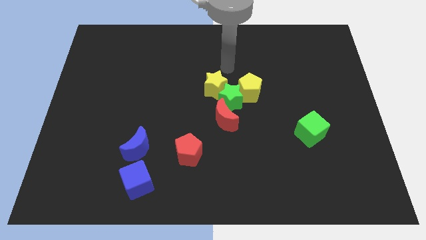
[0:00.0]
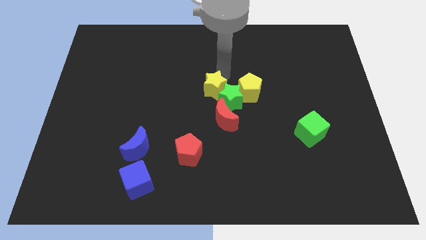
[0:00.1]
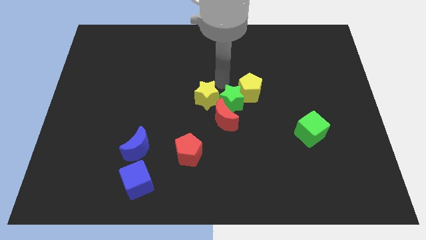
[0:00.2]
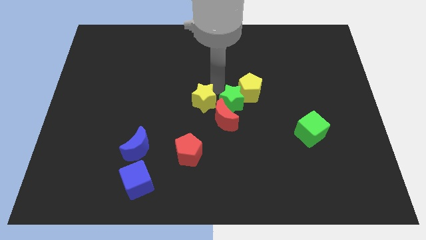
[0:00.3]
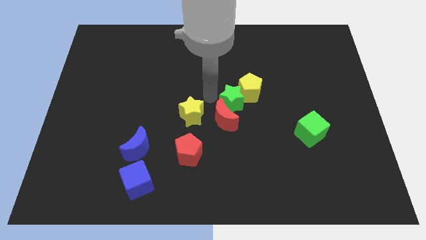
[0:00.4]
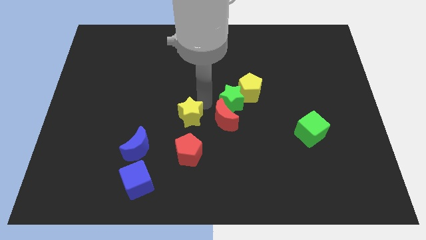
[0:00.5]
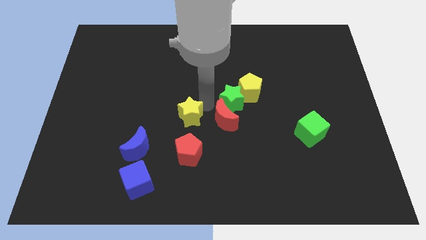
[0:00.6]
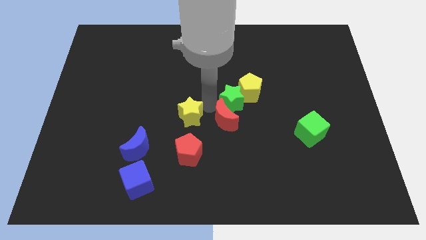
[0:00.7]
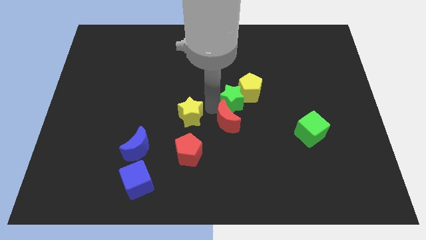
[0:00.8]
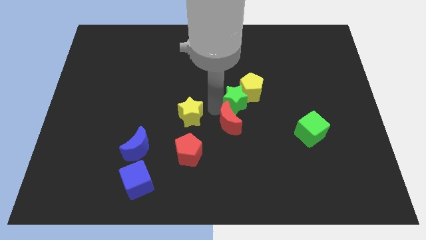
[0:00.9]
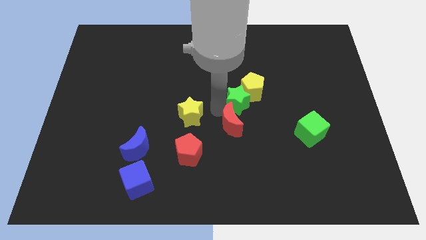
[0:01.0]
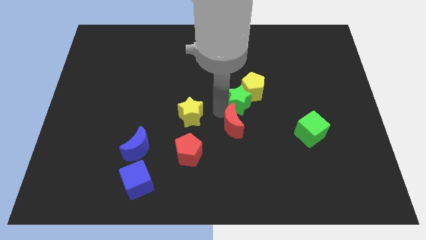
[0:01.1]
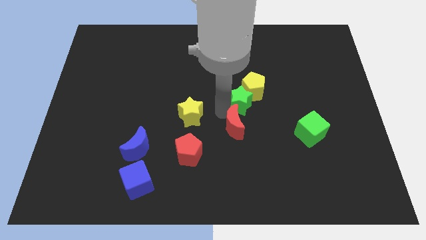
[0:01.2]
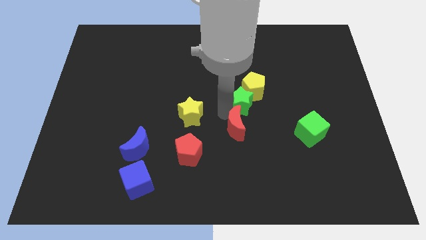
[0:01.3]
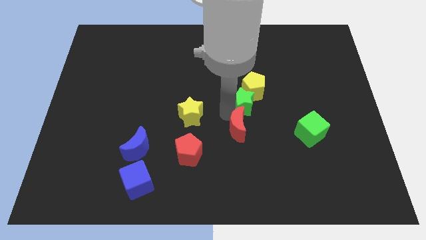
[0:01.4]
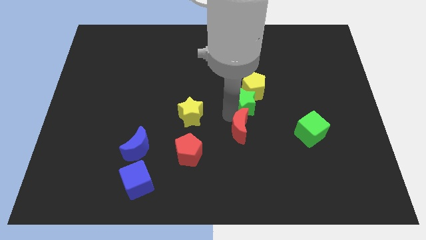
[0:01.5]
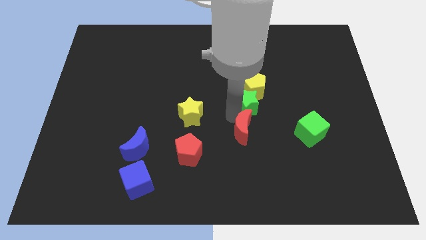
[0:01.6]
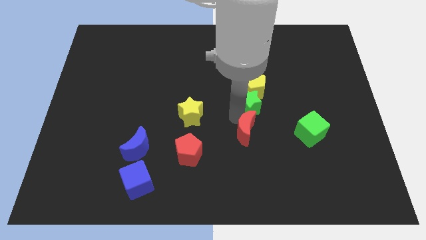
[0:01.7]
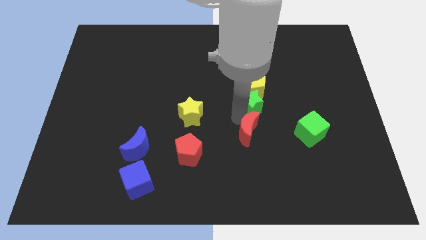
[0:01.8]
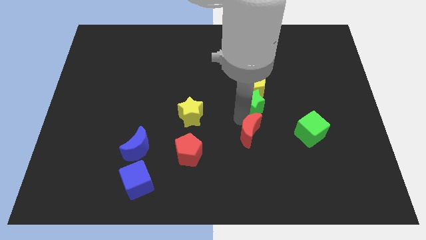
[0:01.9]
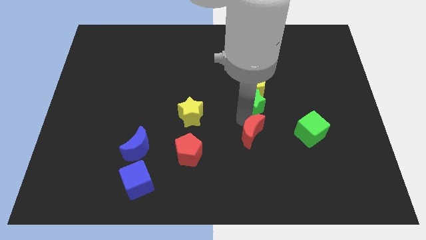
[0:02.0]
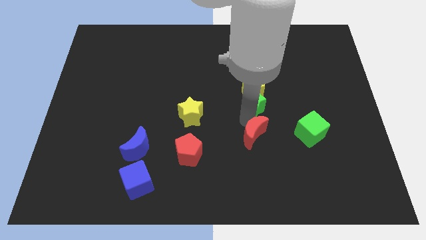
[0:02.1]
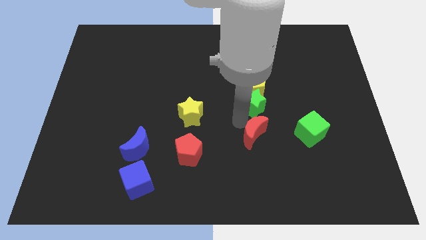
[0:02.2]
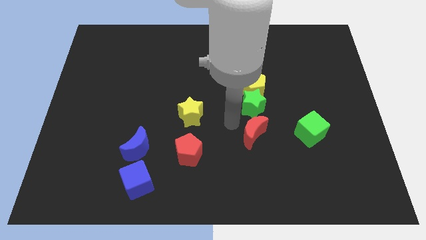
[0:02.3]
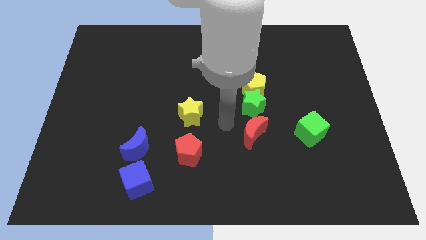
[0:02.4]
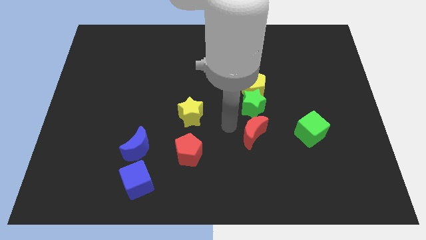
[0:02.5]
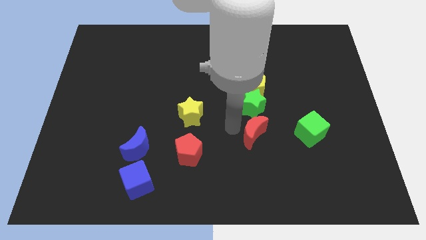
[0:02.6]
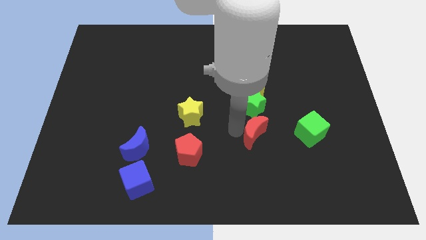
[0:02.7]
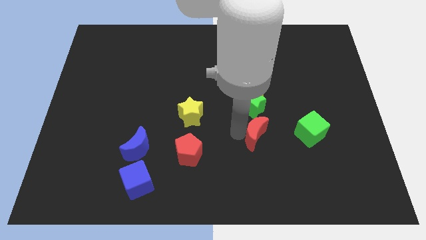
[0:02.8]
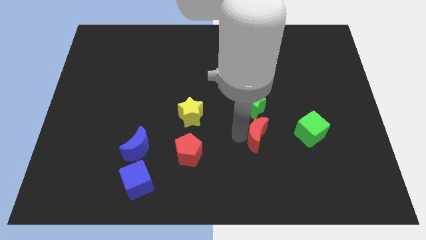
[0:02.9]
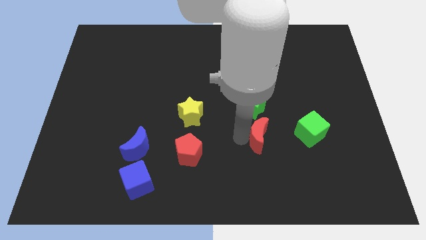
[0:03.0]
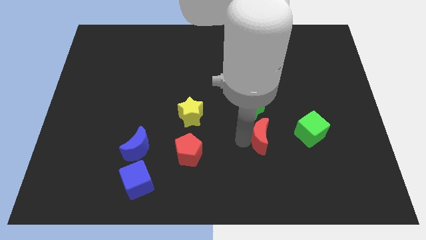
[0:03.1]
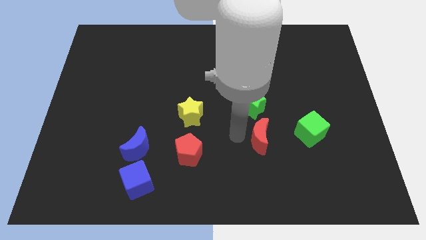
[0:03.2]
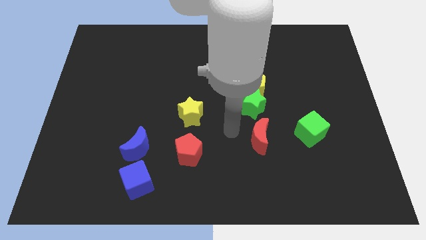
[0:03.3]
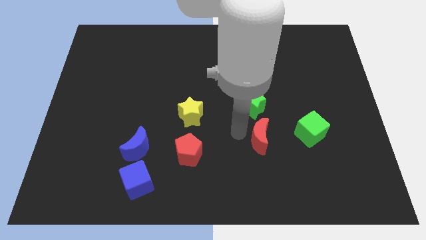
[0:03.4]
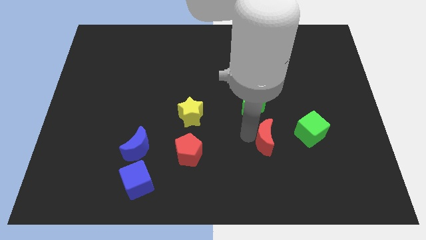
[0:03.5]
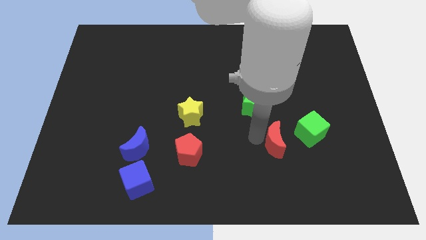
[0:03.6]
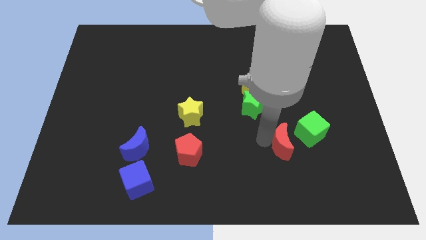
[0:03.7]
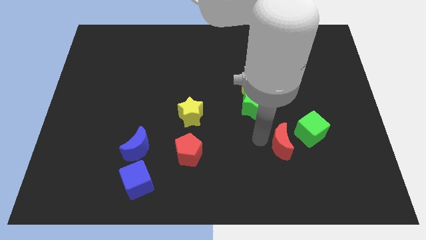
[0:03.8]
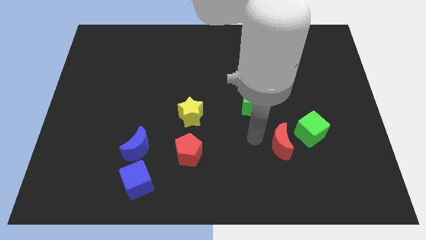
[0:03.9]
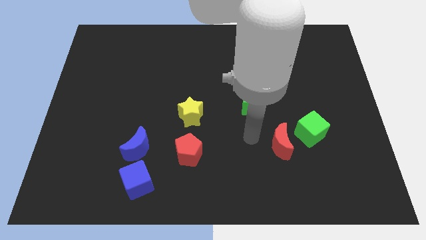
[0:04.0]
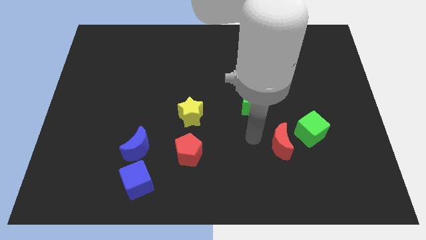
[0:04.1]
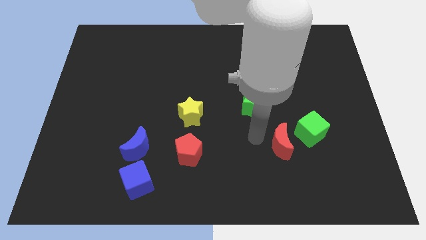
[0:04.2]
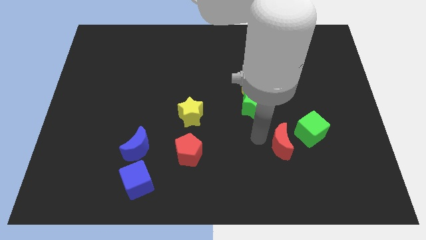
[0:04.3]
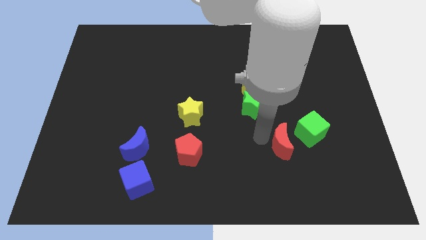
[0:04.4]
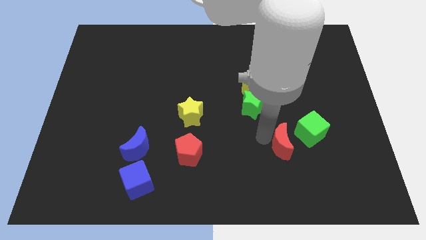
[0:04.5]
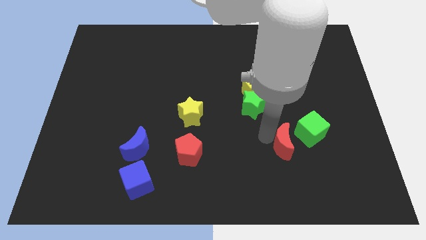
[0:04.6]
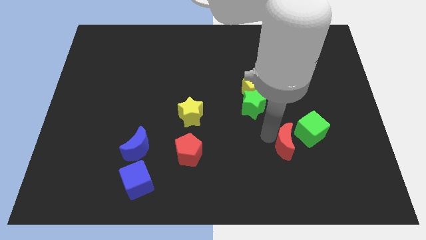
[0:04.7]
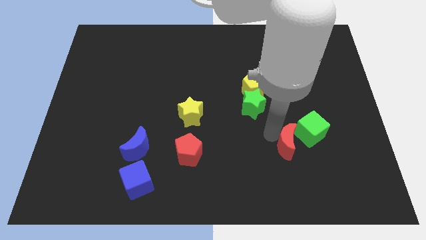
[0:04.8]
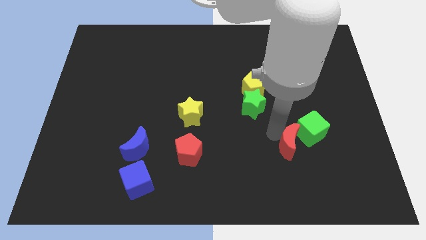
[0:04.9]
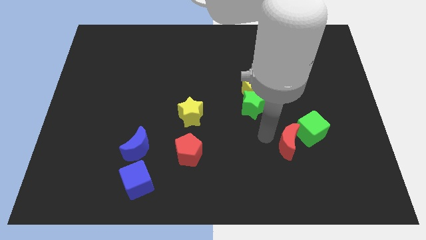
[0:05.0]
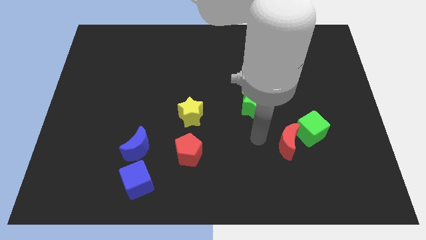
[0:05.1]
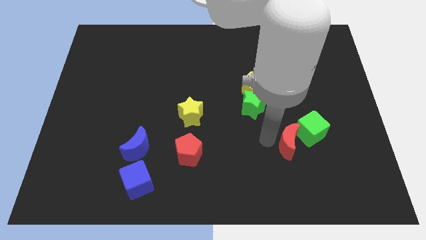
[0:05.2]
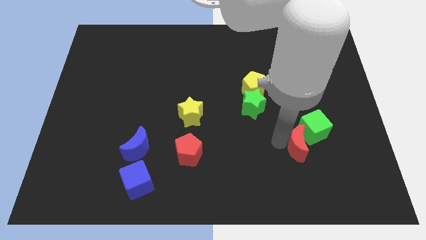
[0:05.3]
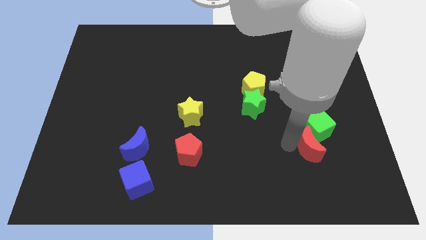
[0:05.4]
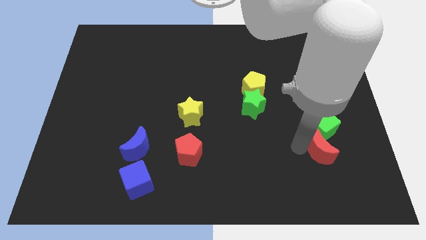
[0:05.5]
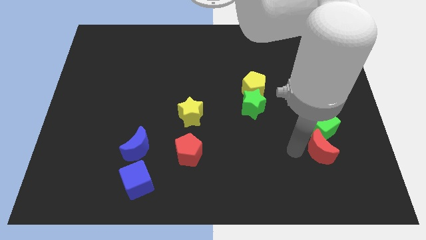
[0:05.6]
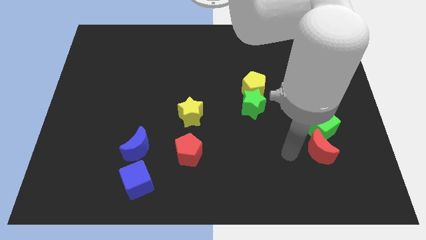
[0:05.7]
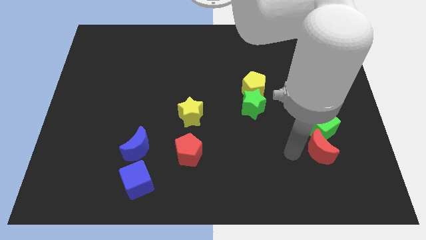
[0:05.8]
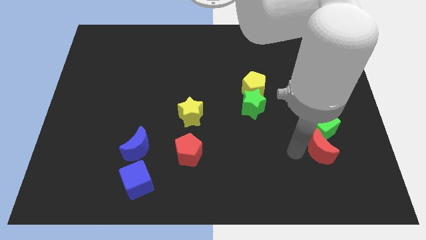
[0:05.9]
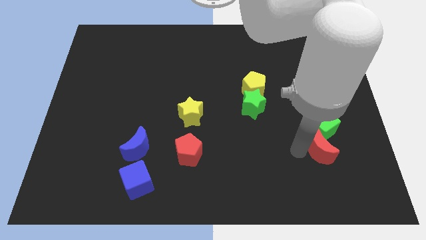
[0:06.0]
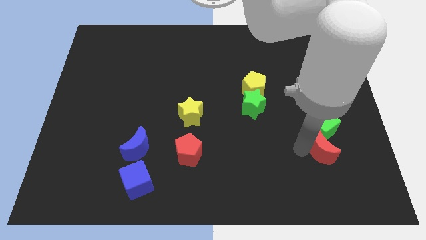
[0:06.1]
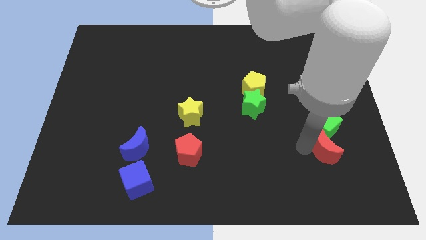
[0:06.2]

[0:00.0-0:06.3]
push the red moon to the bottom right of the green cube

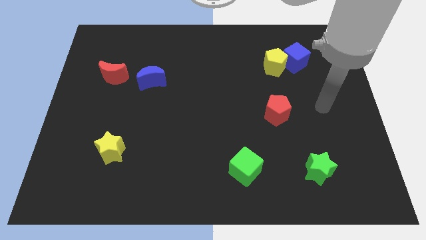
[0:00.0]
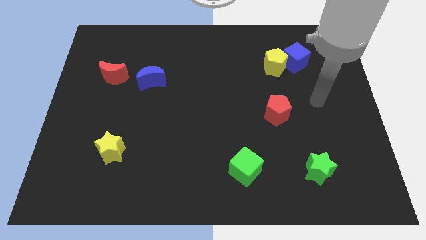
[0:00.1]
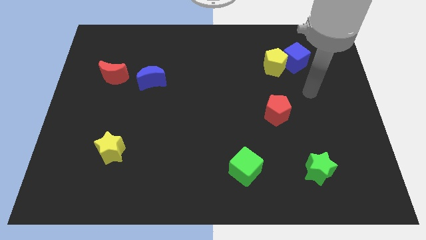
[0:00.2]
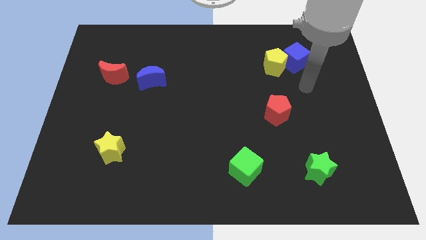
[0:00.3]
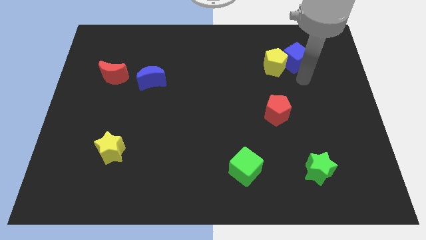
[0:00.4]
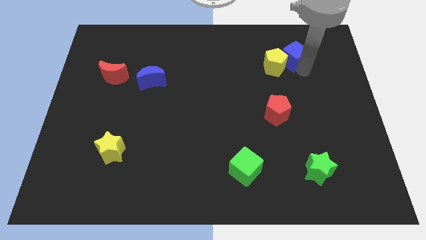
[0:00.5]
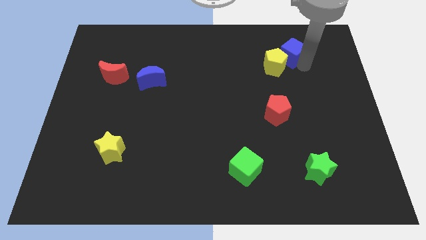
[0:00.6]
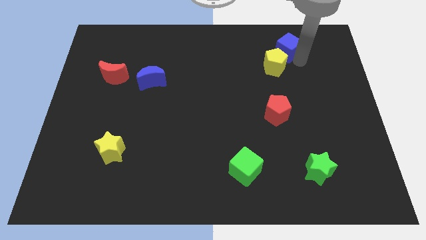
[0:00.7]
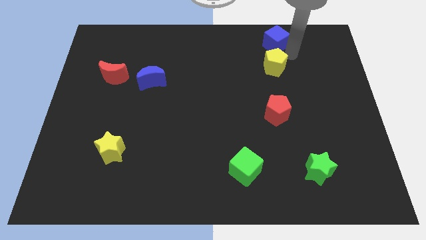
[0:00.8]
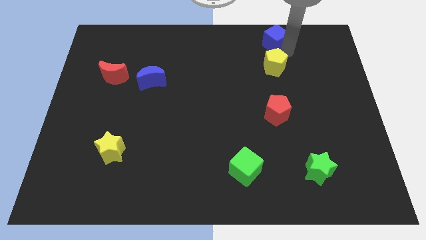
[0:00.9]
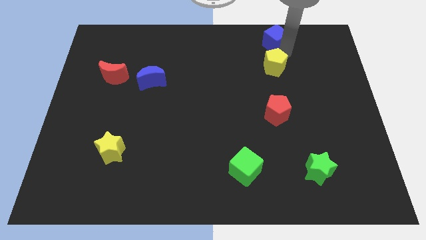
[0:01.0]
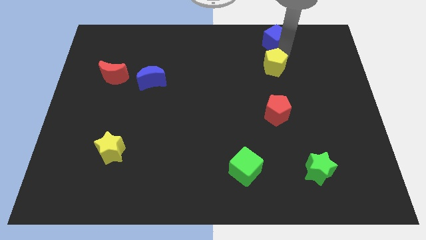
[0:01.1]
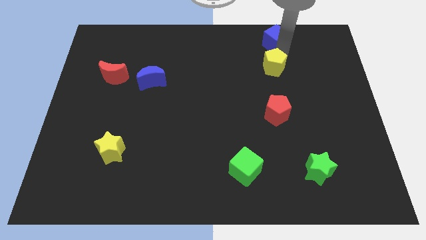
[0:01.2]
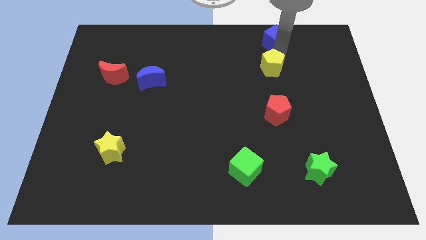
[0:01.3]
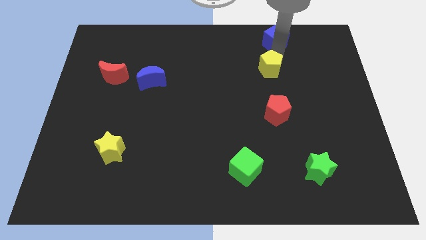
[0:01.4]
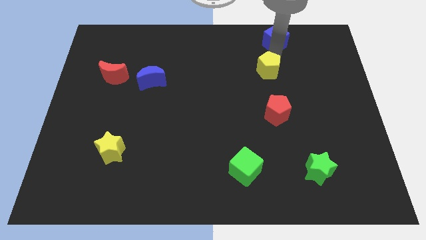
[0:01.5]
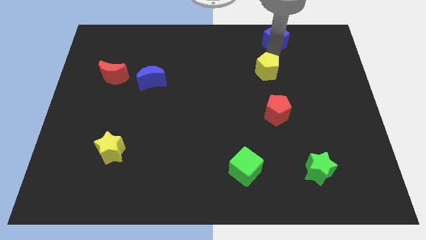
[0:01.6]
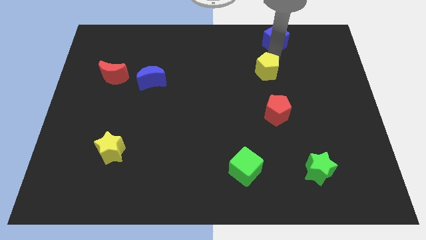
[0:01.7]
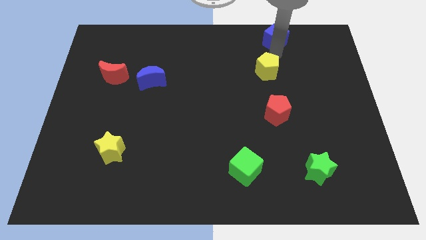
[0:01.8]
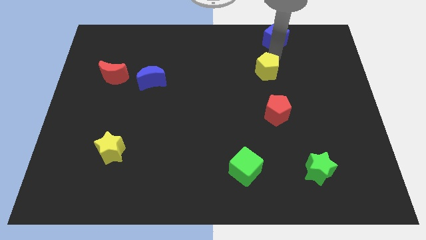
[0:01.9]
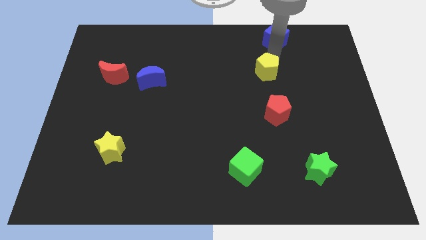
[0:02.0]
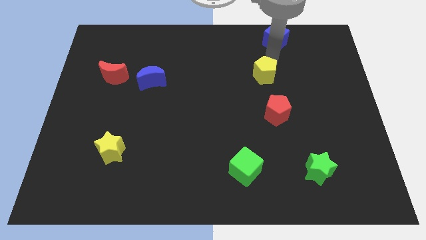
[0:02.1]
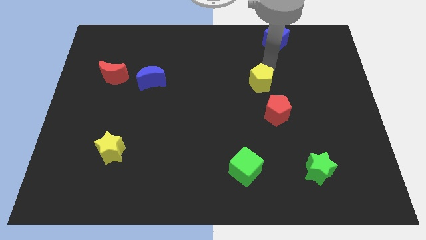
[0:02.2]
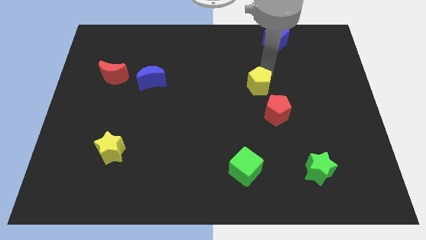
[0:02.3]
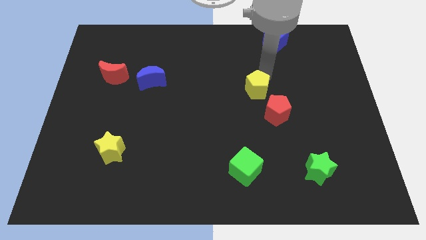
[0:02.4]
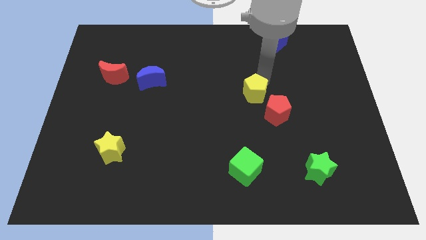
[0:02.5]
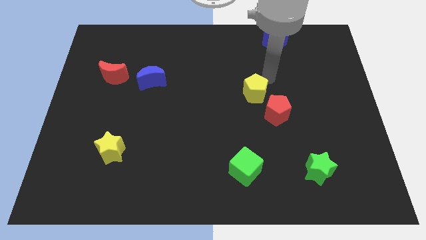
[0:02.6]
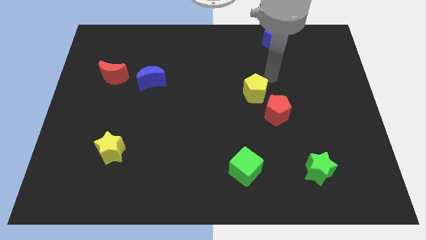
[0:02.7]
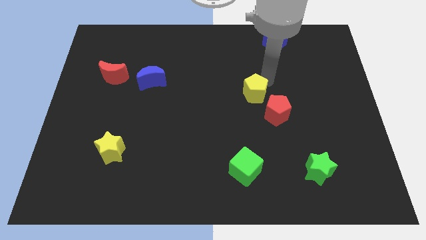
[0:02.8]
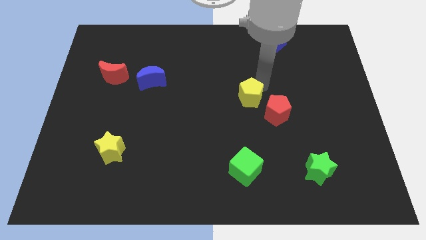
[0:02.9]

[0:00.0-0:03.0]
slide the yellow pentagon left of the red pentagon
